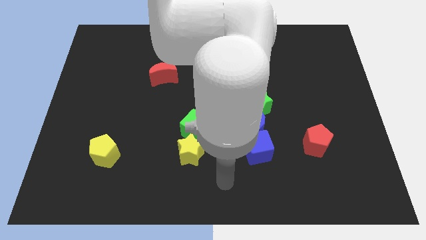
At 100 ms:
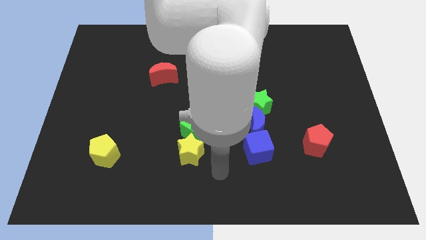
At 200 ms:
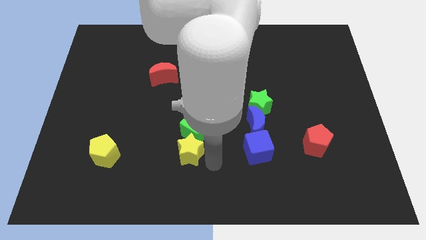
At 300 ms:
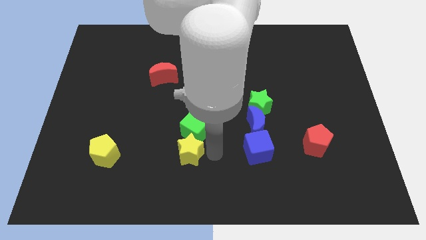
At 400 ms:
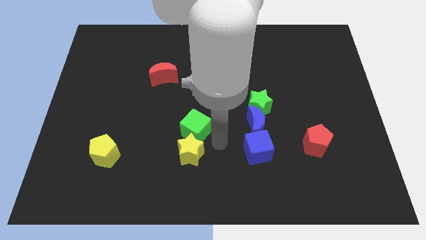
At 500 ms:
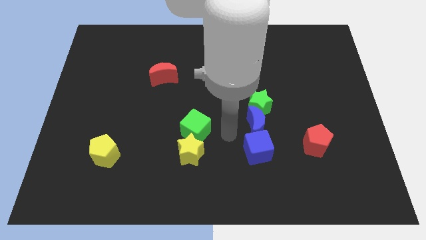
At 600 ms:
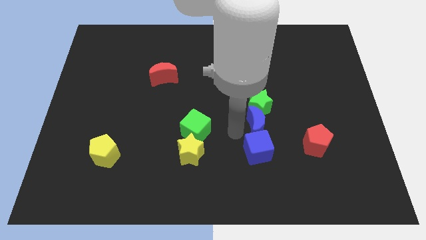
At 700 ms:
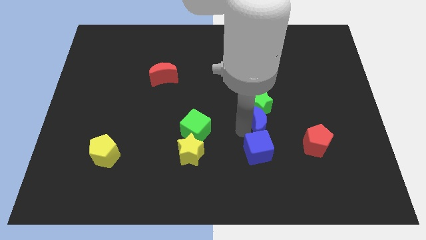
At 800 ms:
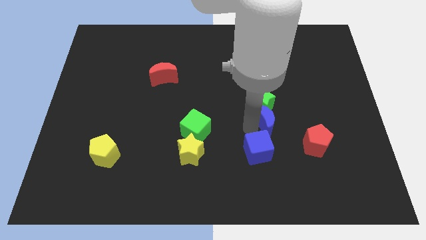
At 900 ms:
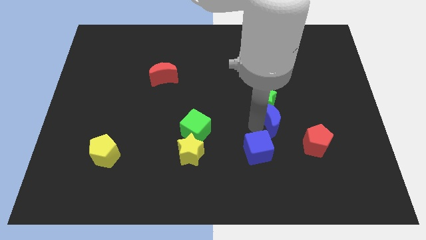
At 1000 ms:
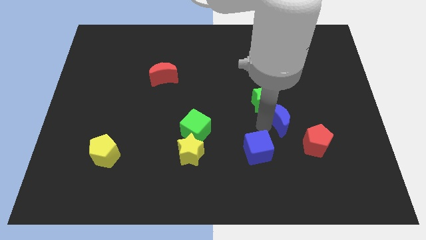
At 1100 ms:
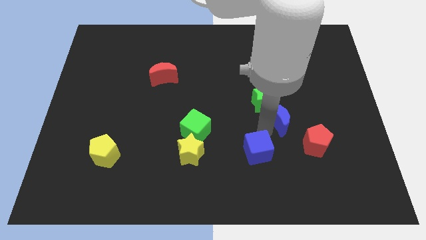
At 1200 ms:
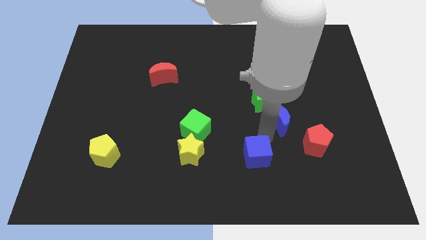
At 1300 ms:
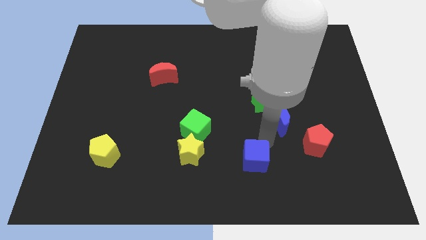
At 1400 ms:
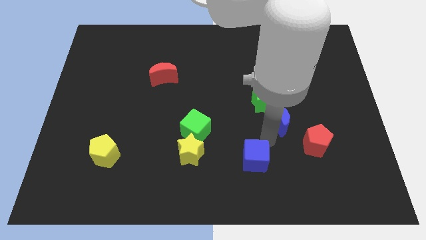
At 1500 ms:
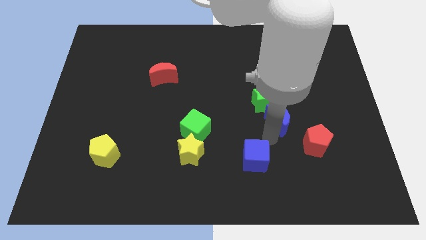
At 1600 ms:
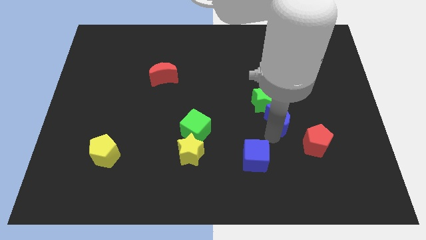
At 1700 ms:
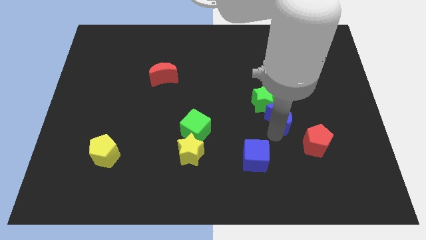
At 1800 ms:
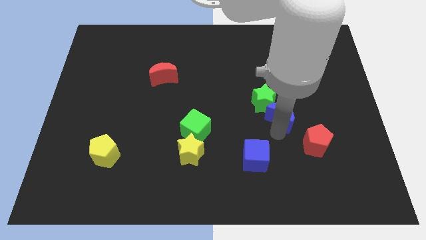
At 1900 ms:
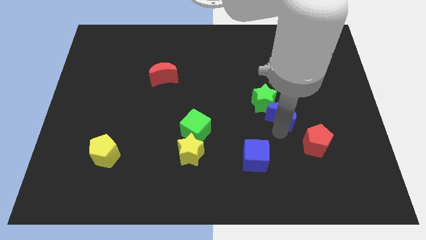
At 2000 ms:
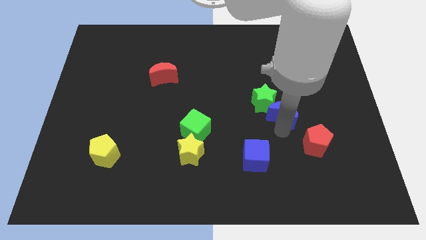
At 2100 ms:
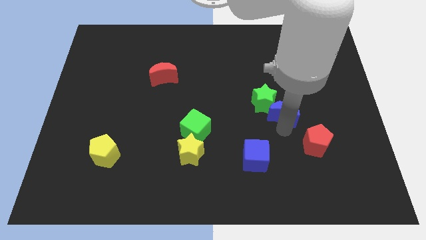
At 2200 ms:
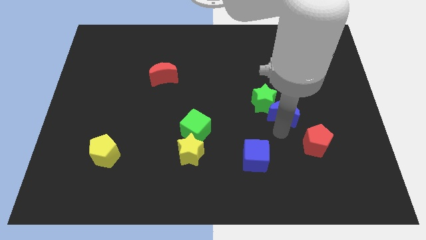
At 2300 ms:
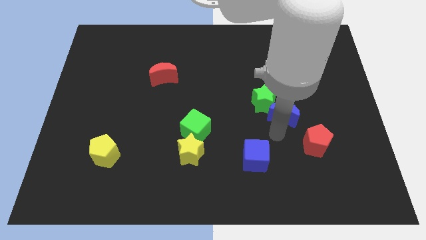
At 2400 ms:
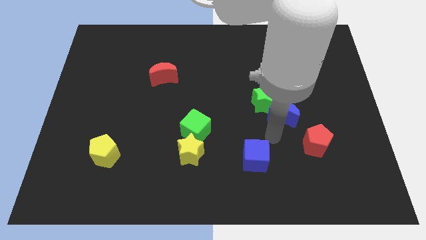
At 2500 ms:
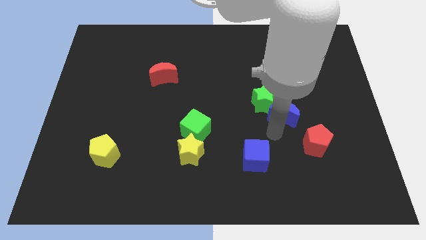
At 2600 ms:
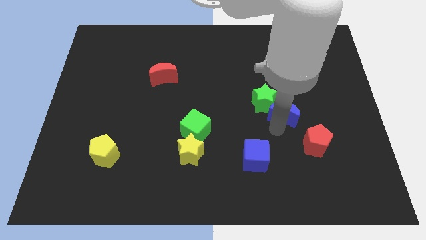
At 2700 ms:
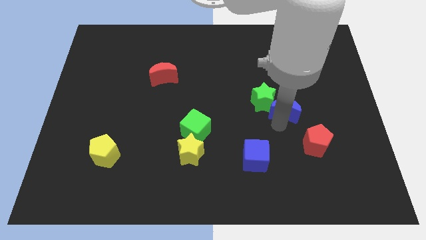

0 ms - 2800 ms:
slide the blue moon a bit upwards and then to the right

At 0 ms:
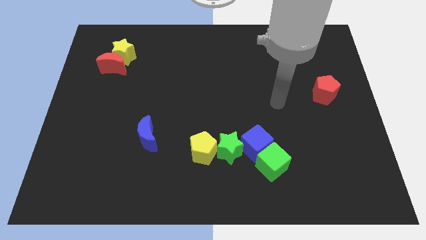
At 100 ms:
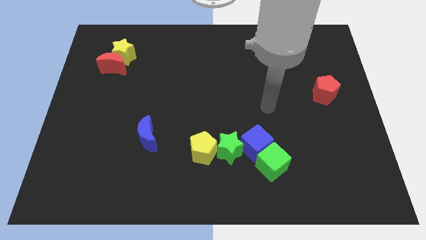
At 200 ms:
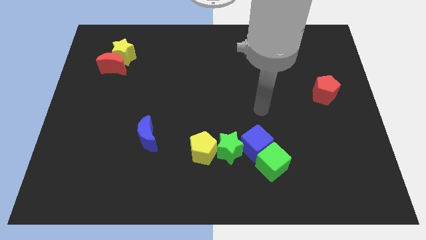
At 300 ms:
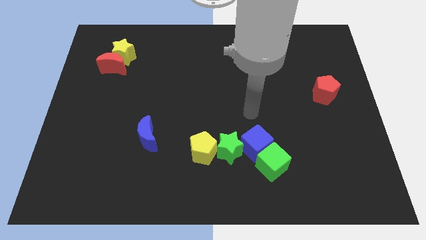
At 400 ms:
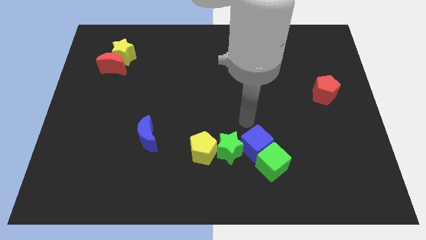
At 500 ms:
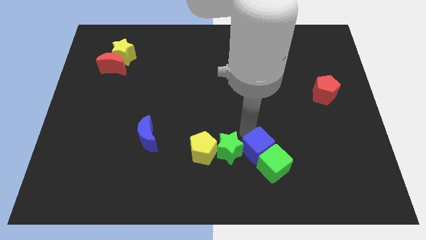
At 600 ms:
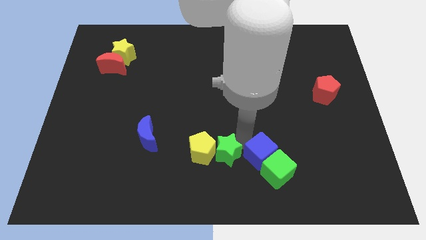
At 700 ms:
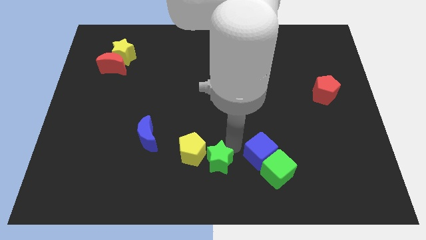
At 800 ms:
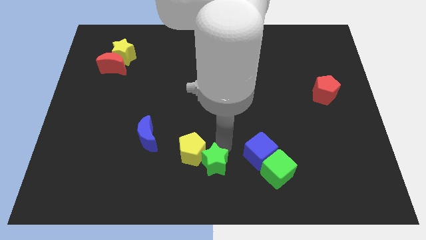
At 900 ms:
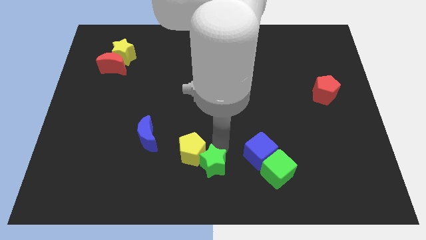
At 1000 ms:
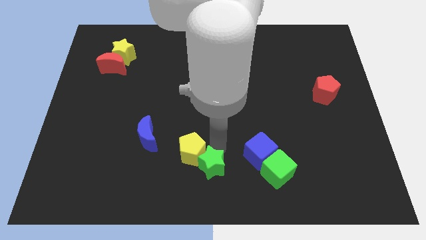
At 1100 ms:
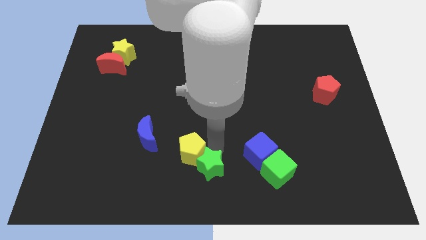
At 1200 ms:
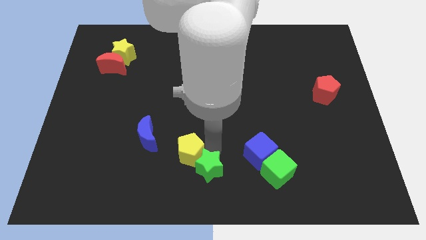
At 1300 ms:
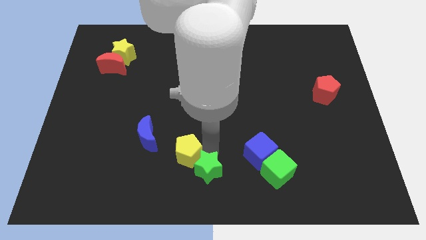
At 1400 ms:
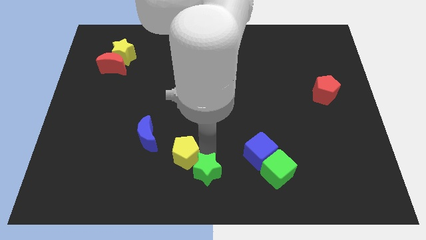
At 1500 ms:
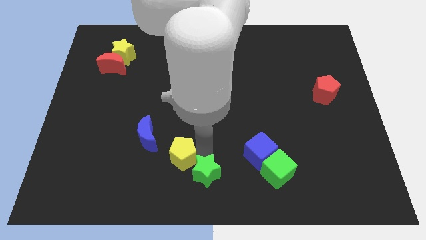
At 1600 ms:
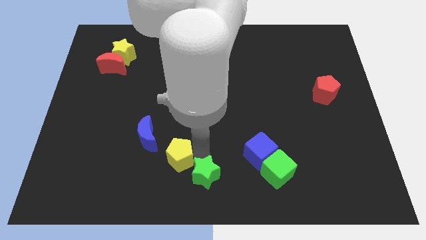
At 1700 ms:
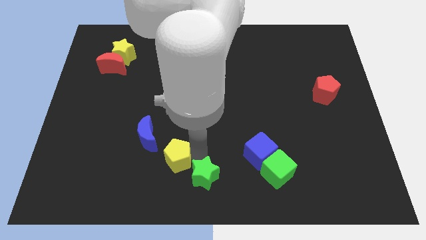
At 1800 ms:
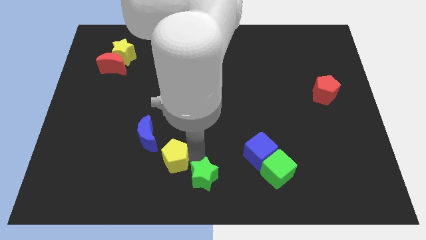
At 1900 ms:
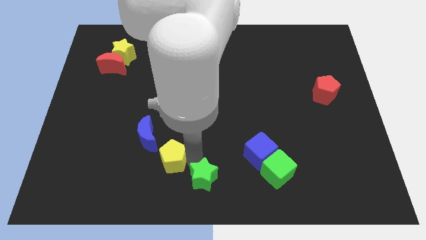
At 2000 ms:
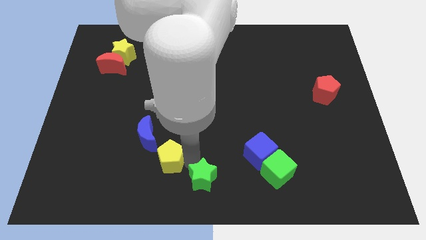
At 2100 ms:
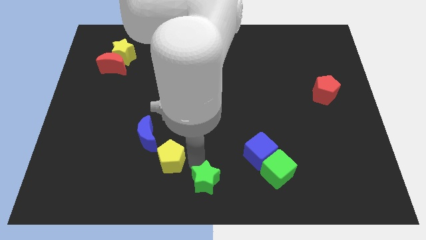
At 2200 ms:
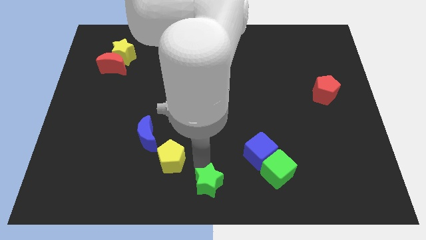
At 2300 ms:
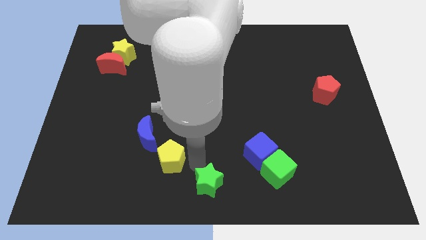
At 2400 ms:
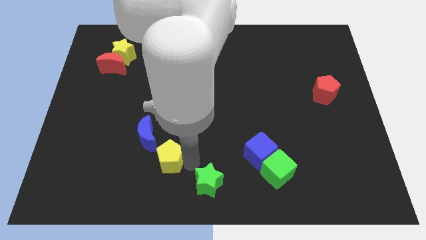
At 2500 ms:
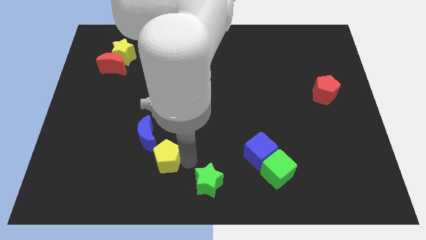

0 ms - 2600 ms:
push the yellow pentagon a little bit left

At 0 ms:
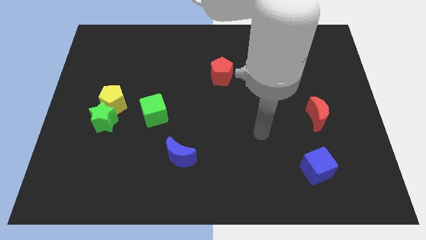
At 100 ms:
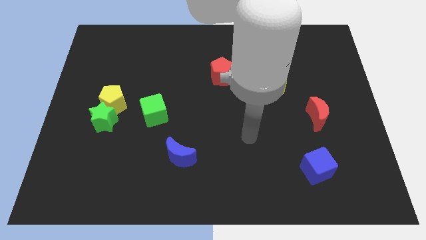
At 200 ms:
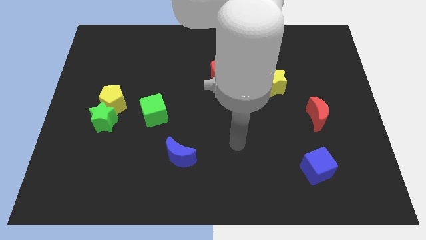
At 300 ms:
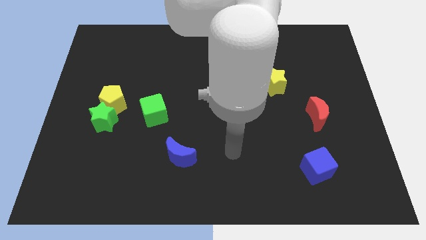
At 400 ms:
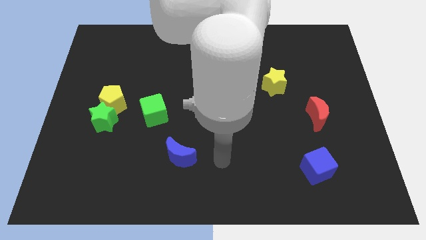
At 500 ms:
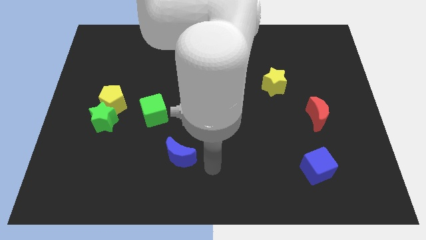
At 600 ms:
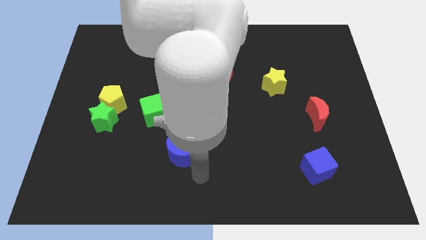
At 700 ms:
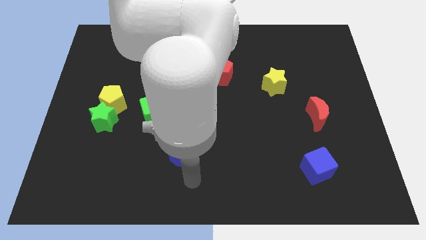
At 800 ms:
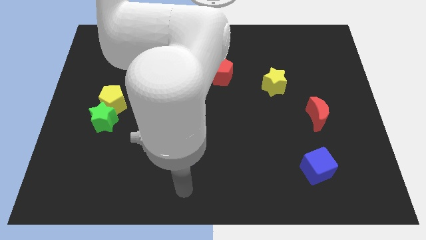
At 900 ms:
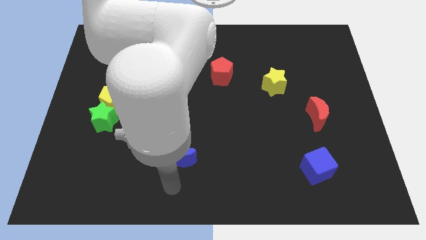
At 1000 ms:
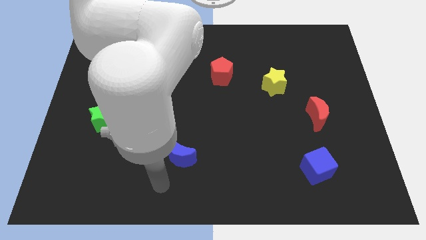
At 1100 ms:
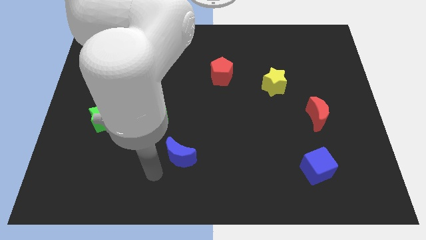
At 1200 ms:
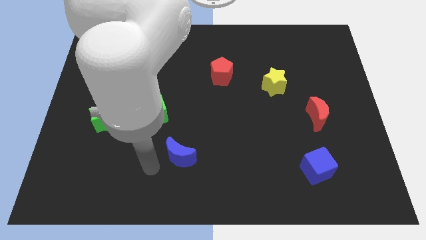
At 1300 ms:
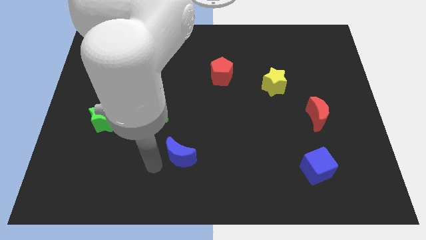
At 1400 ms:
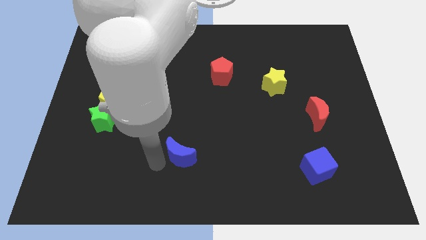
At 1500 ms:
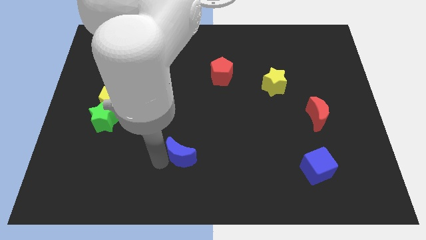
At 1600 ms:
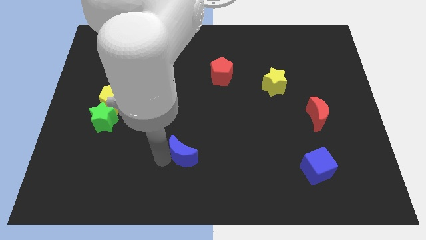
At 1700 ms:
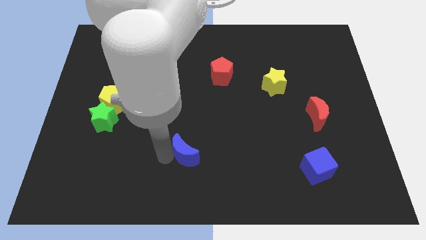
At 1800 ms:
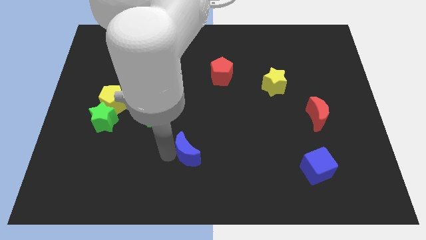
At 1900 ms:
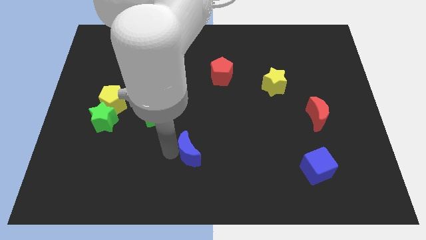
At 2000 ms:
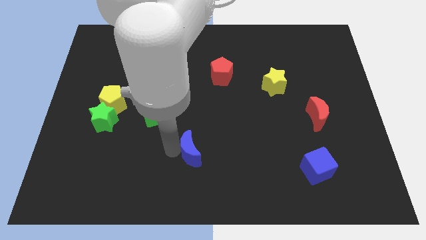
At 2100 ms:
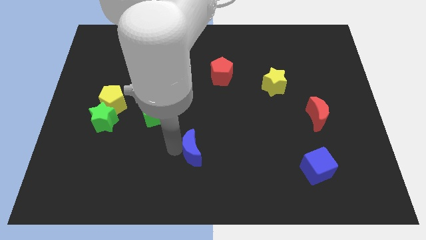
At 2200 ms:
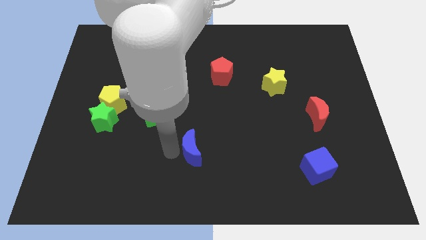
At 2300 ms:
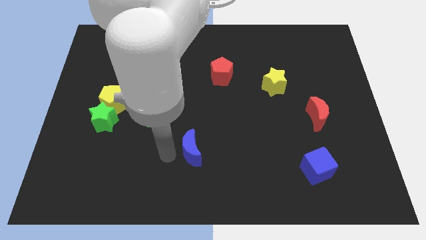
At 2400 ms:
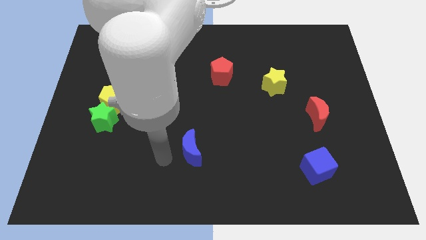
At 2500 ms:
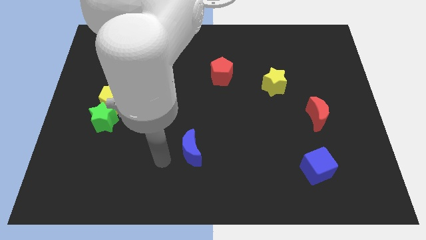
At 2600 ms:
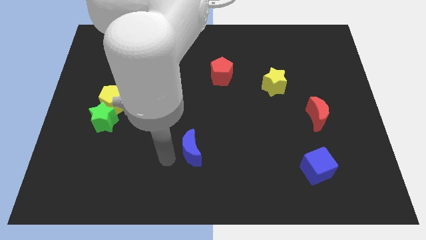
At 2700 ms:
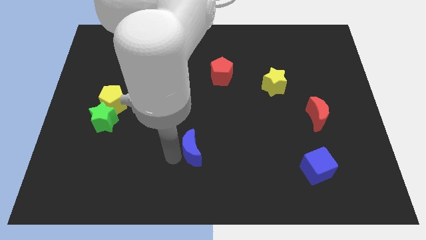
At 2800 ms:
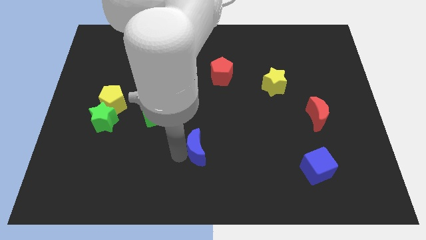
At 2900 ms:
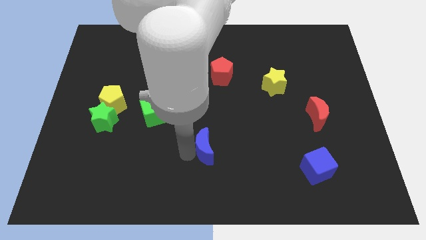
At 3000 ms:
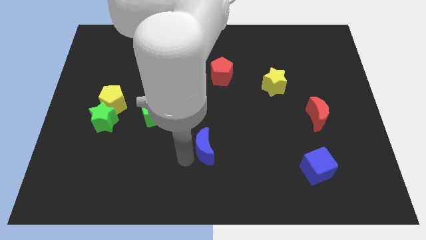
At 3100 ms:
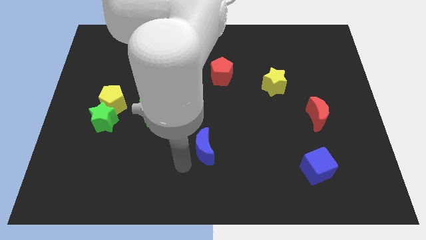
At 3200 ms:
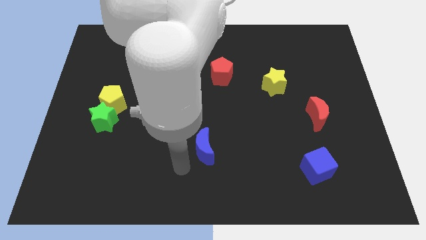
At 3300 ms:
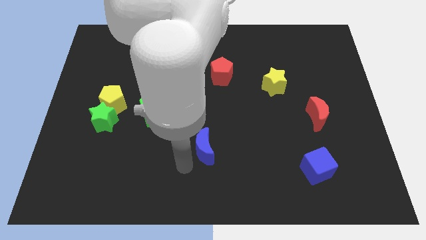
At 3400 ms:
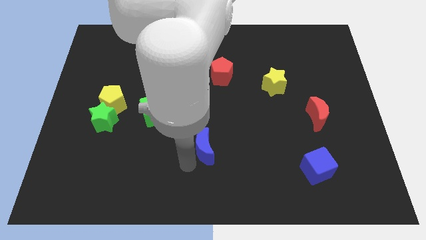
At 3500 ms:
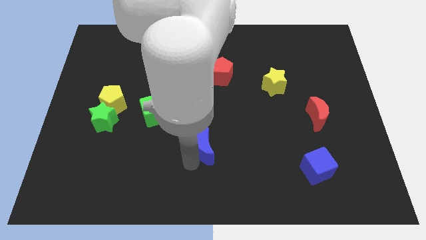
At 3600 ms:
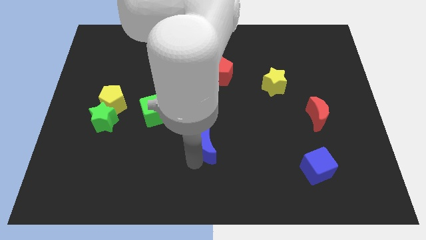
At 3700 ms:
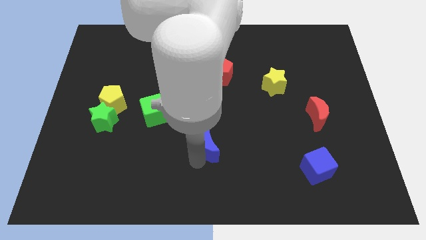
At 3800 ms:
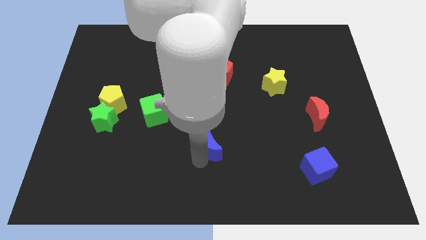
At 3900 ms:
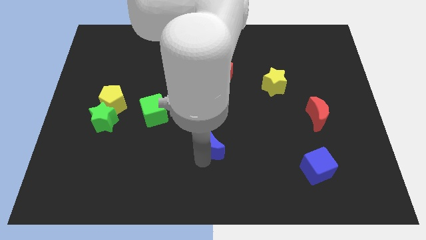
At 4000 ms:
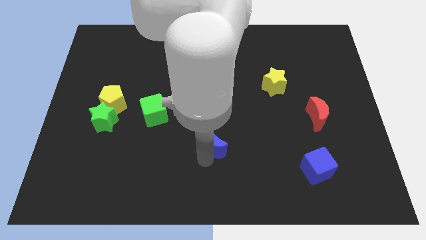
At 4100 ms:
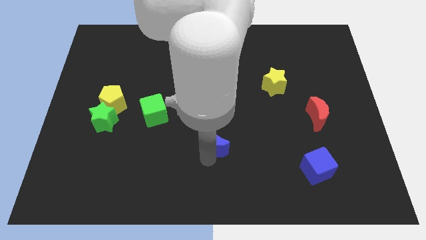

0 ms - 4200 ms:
push the blue moon somewhat up and right
